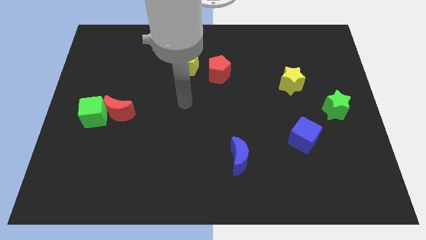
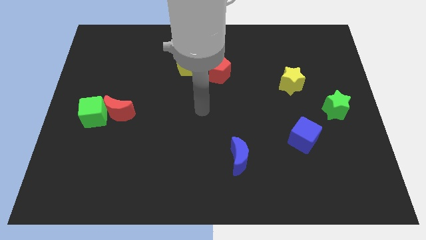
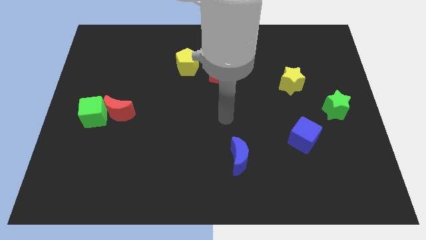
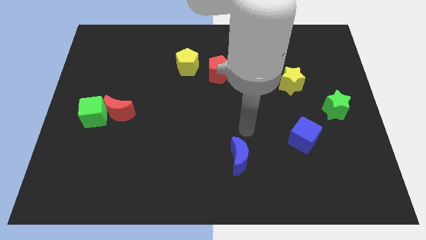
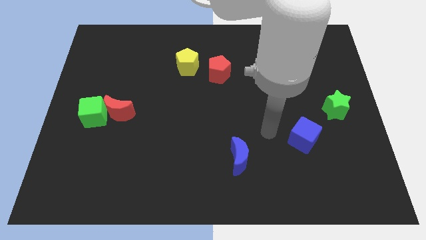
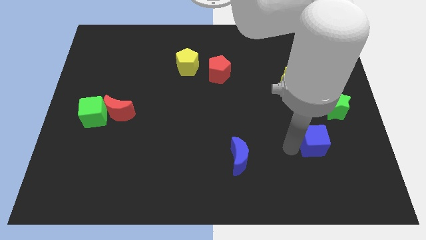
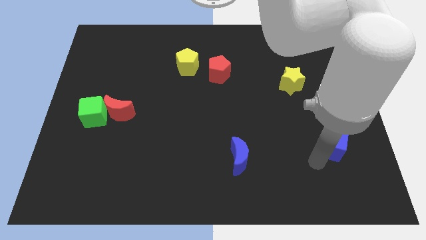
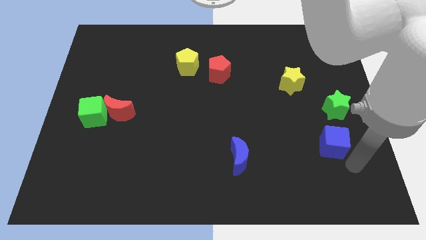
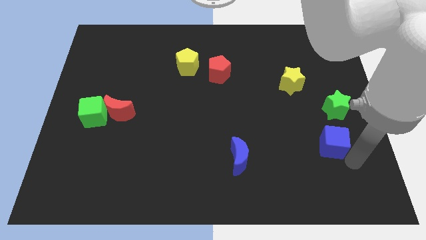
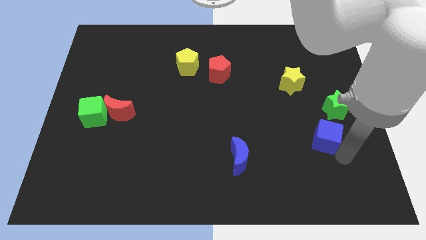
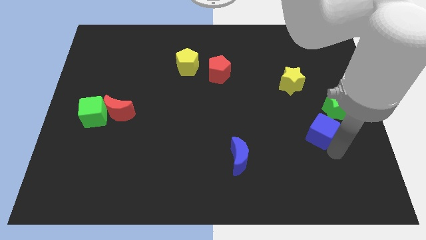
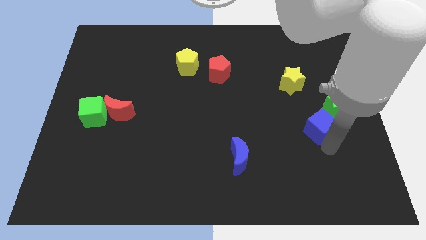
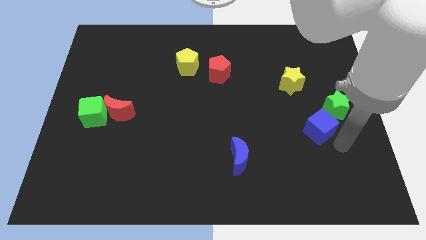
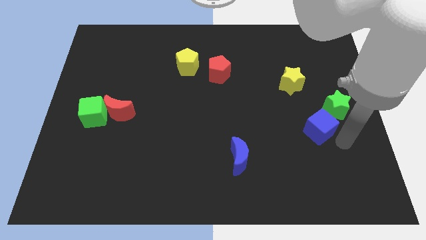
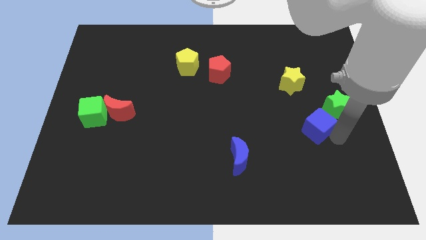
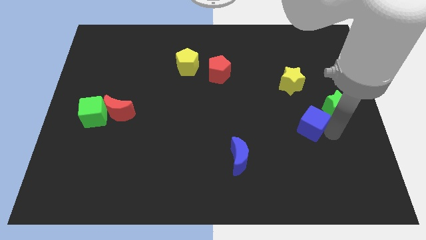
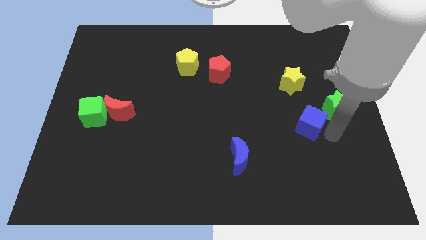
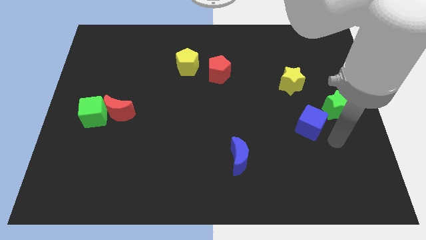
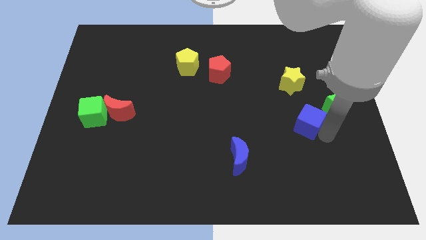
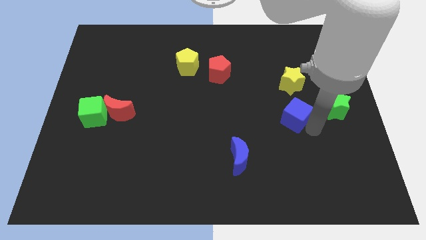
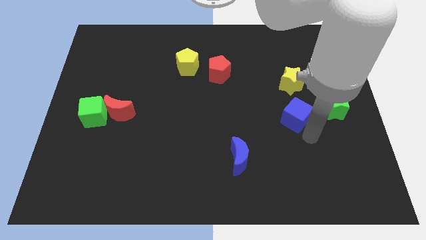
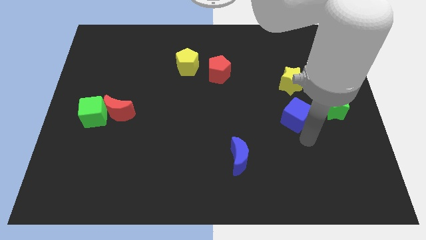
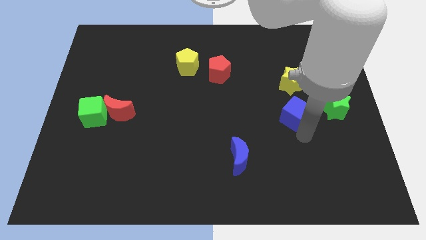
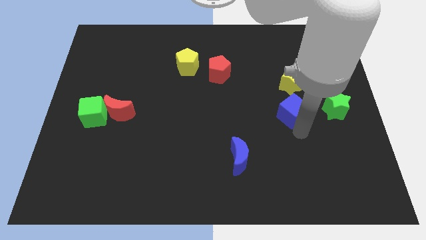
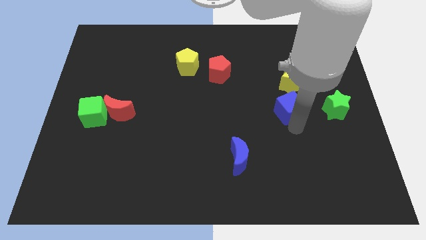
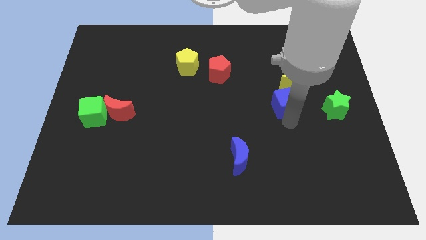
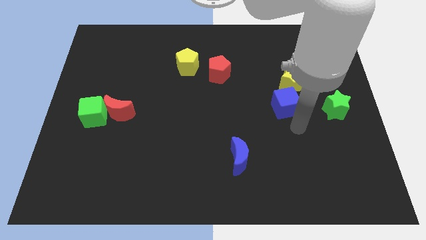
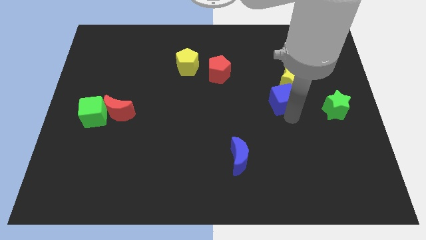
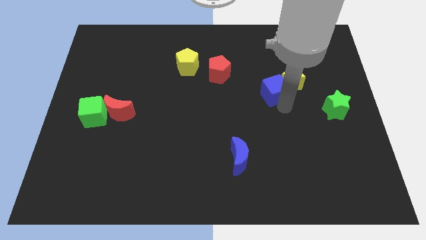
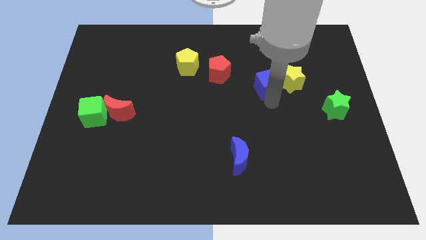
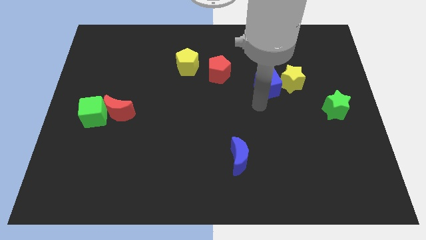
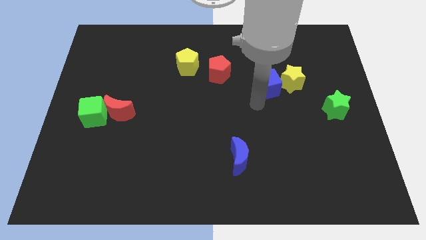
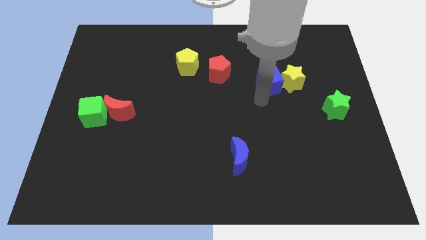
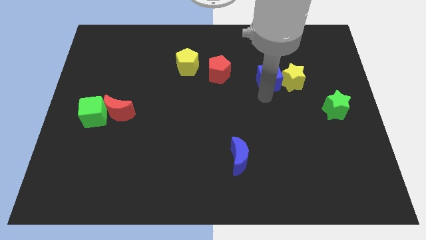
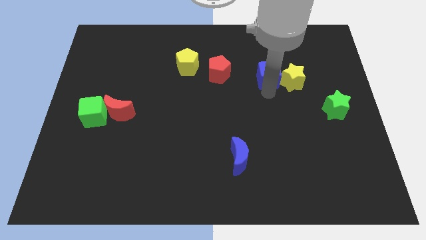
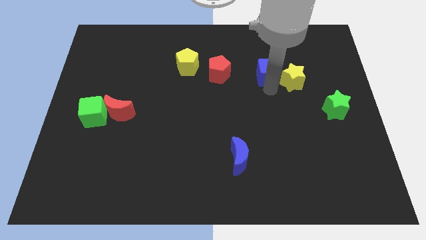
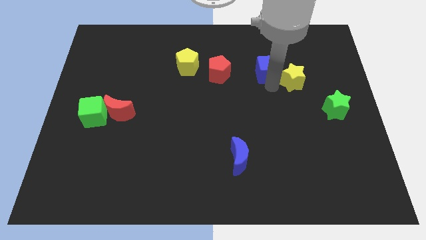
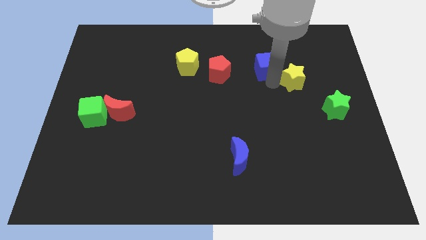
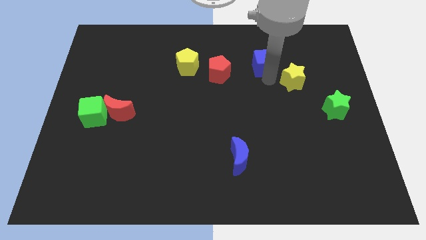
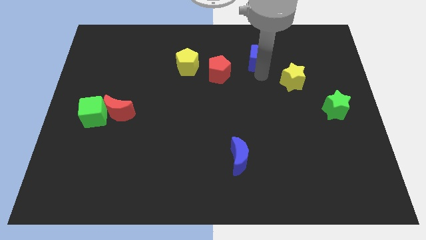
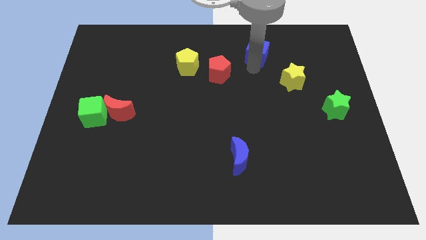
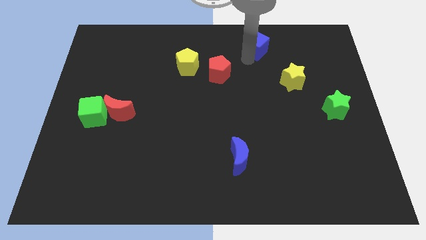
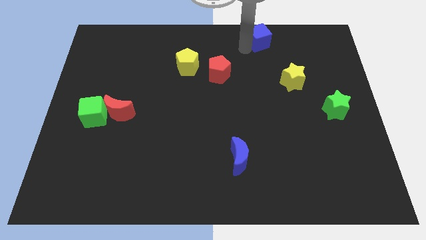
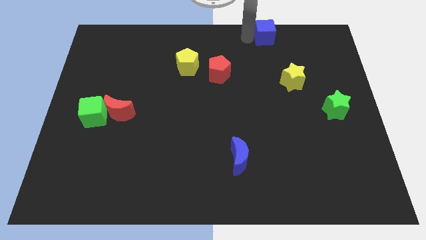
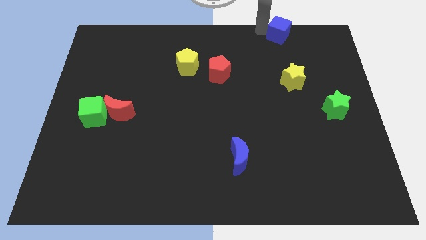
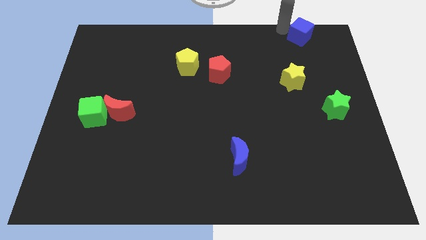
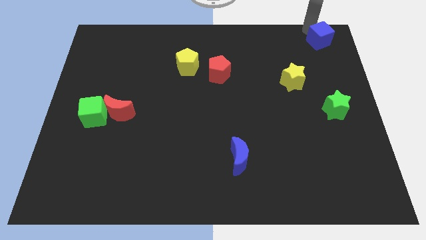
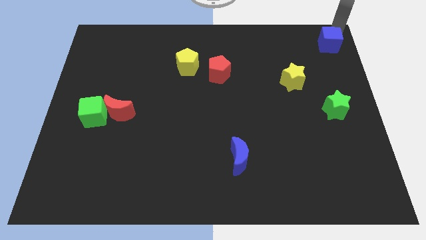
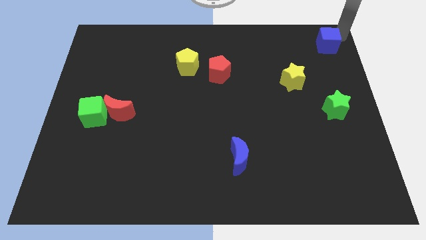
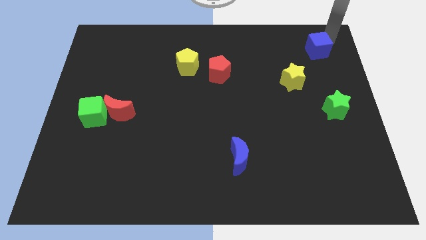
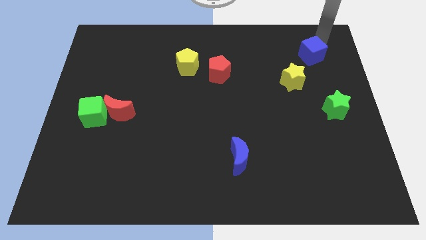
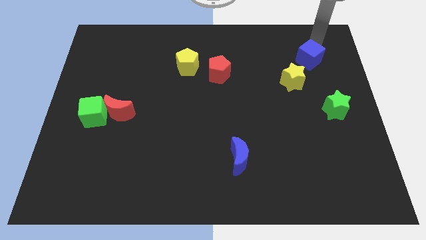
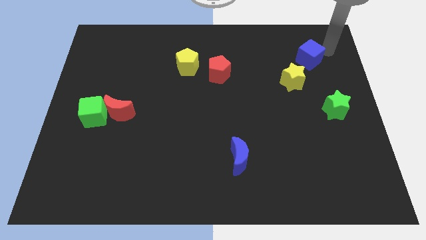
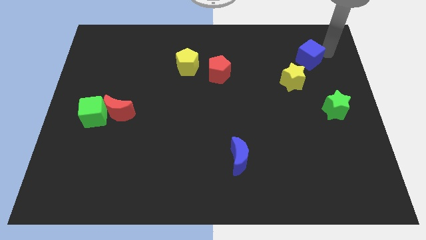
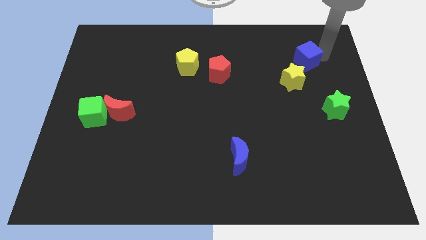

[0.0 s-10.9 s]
move the blue cube to the top of the yellow star

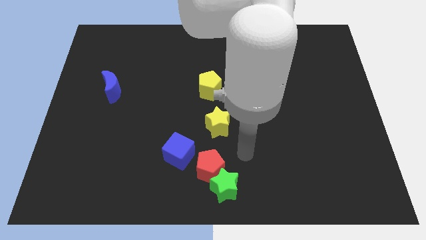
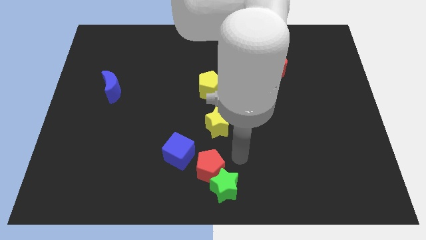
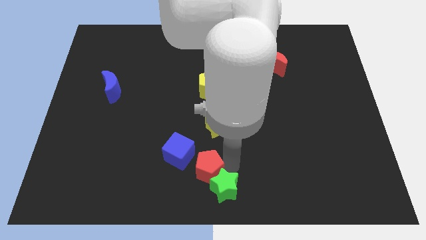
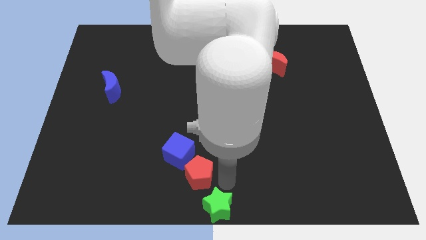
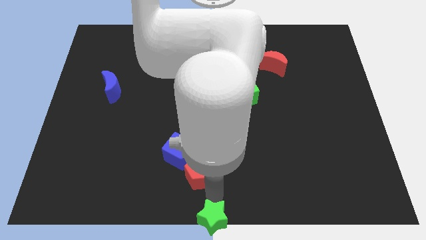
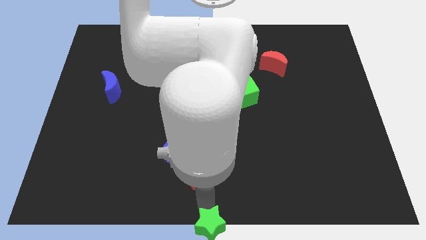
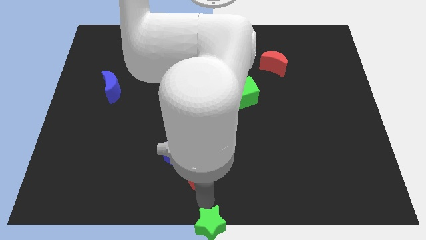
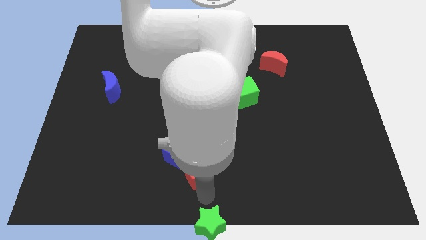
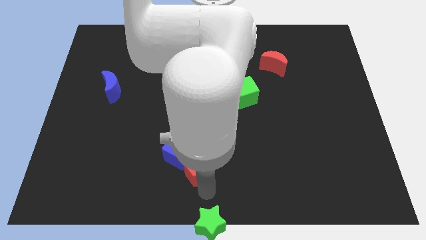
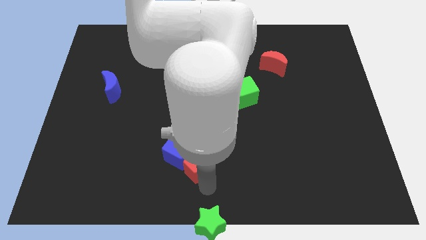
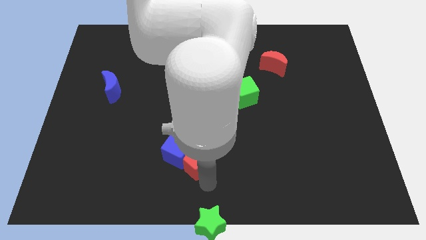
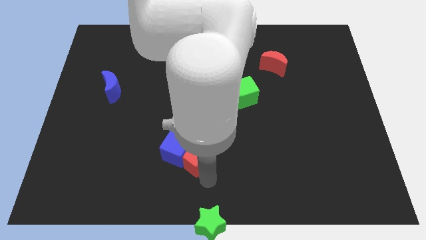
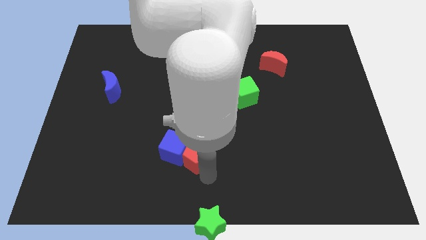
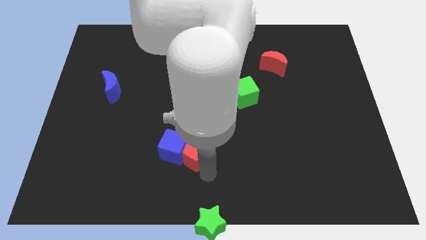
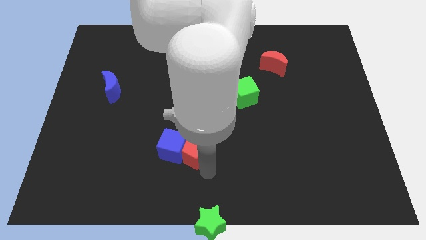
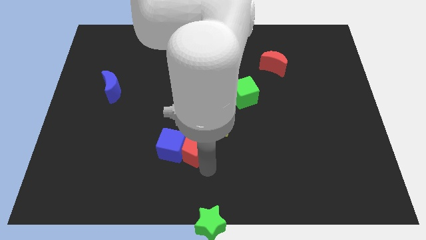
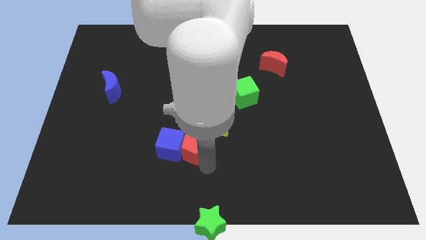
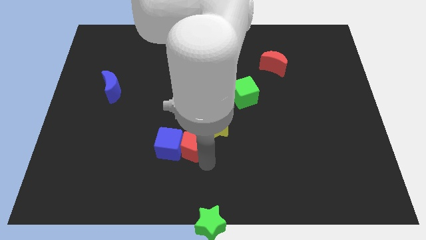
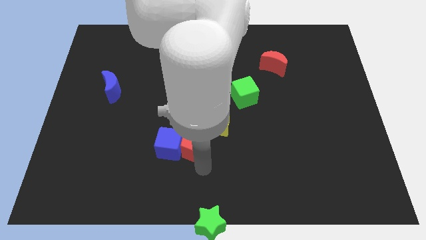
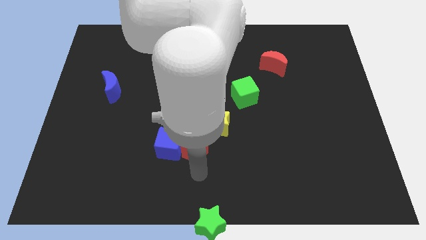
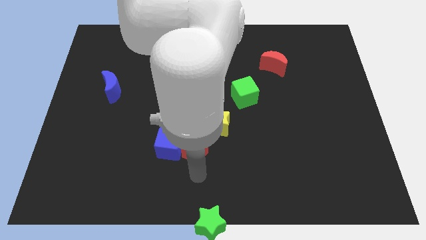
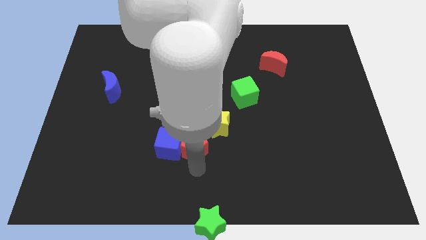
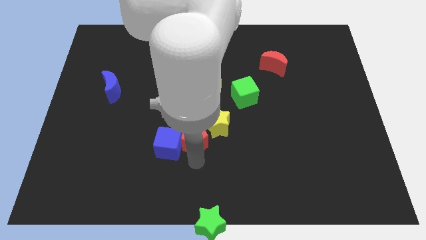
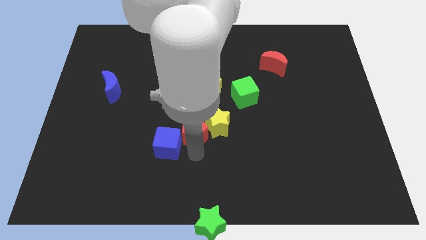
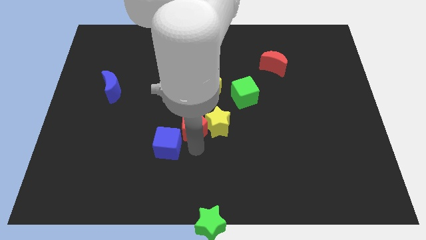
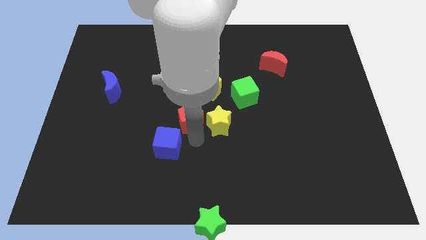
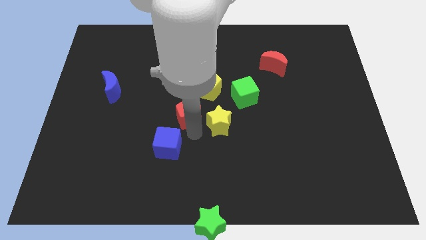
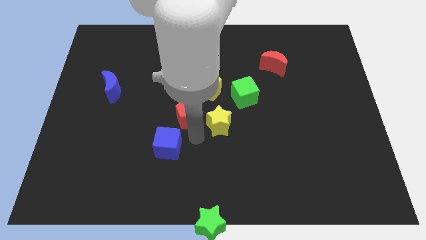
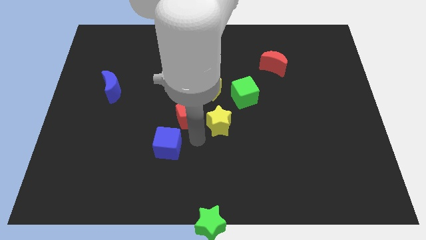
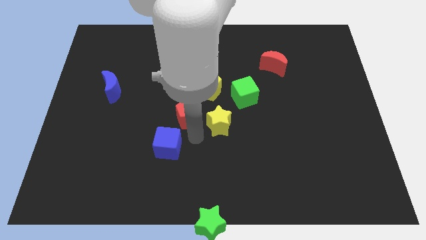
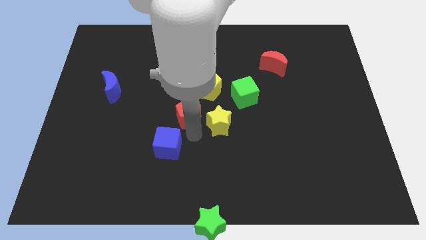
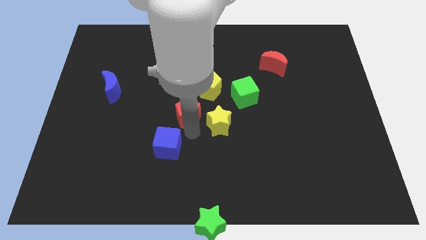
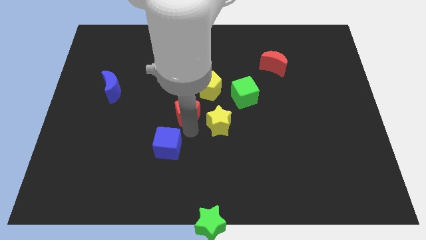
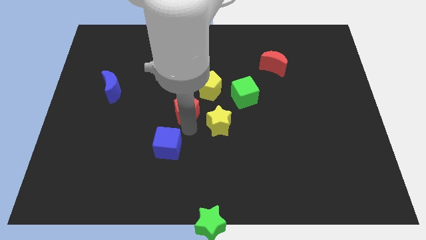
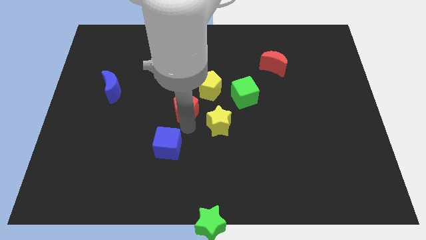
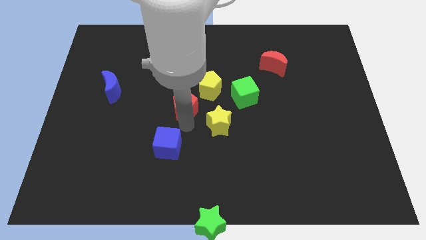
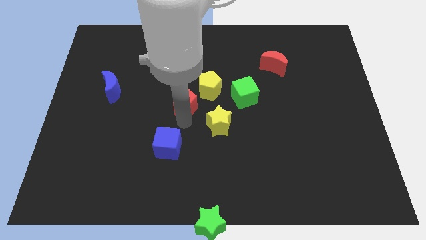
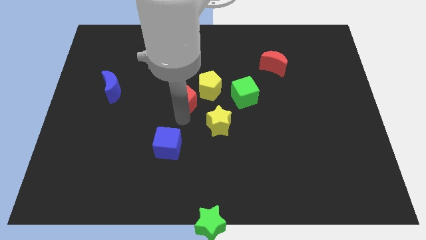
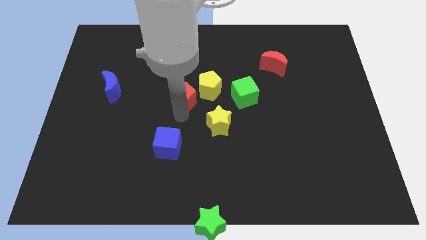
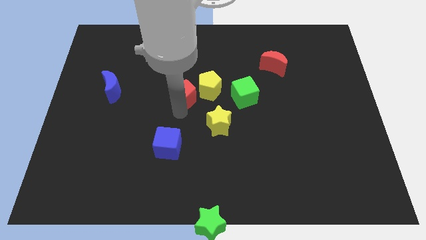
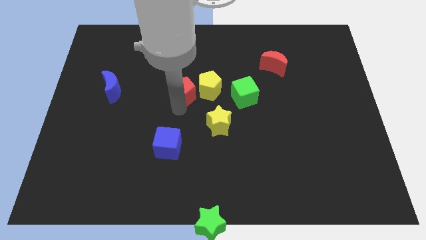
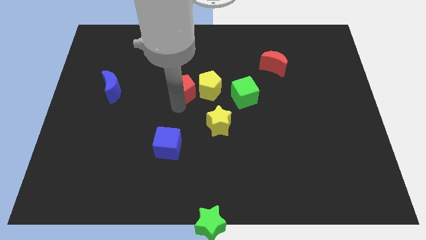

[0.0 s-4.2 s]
put the red pentagon to the top left side of the yellow pentagon
